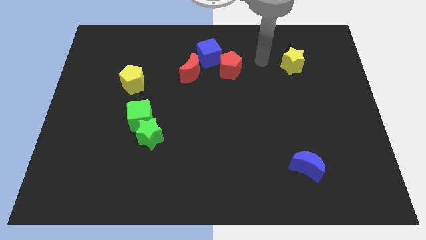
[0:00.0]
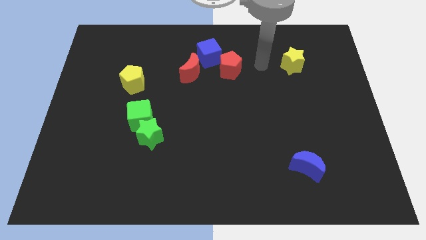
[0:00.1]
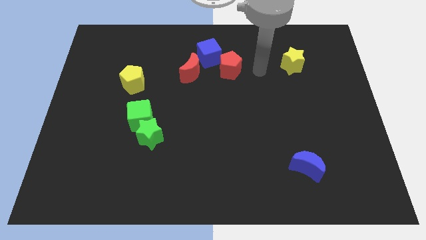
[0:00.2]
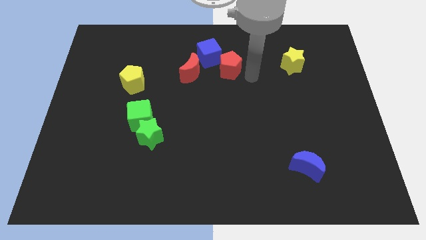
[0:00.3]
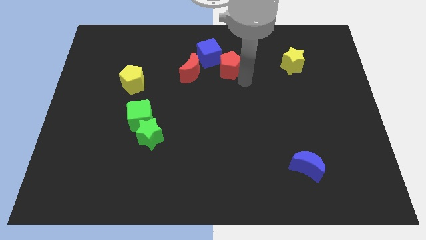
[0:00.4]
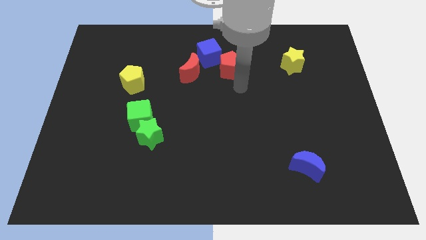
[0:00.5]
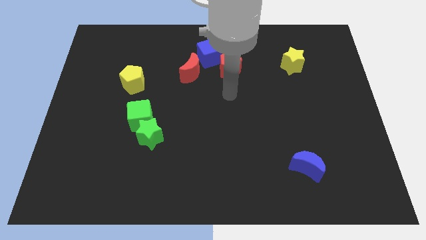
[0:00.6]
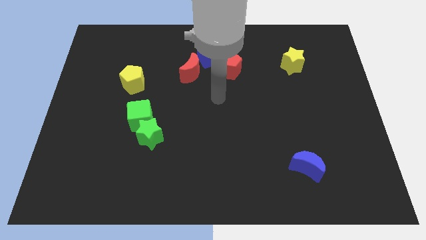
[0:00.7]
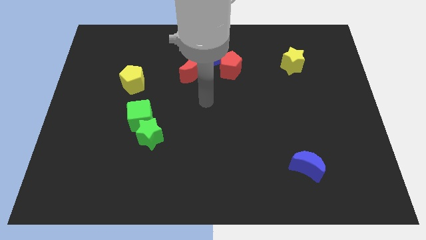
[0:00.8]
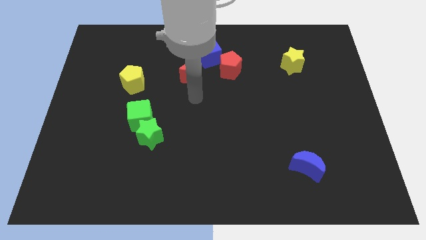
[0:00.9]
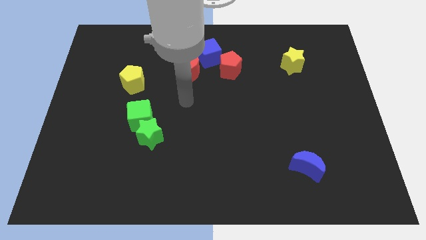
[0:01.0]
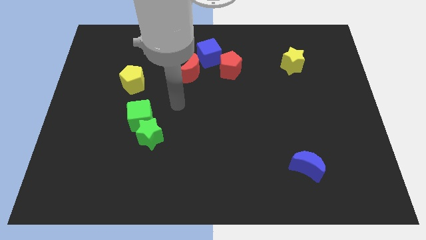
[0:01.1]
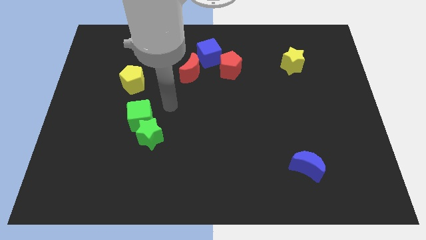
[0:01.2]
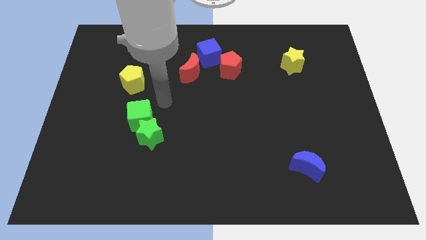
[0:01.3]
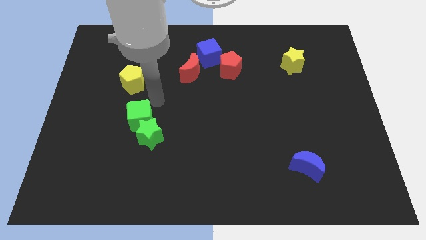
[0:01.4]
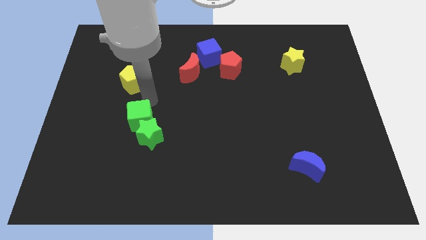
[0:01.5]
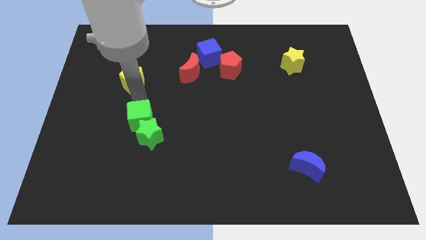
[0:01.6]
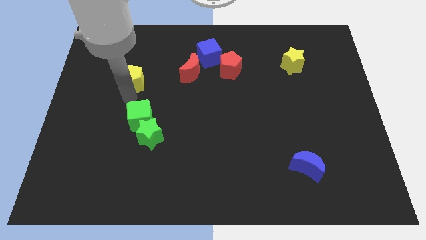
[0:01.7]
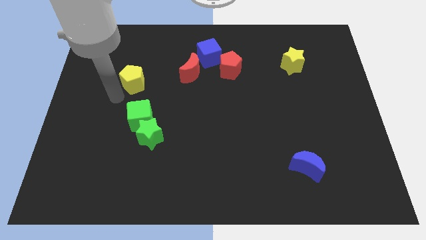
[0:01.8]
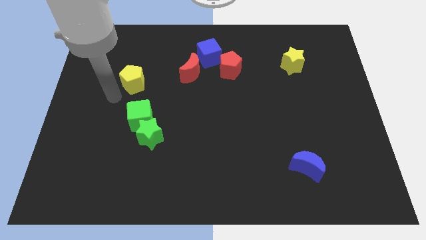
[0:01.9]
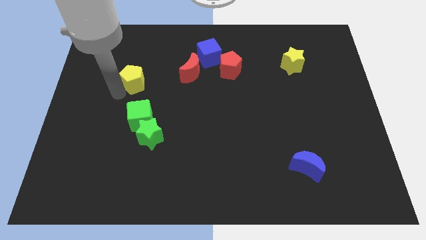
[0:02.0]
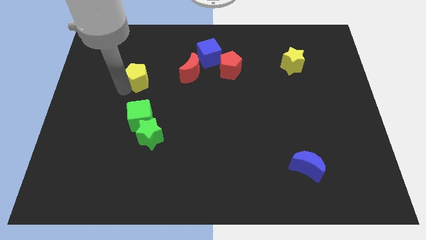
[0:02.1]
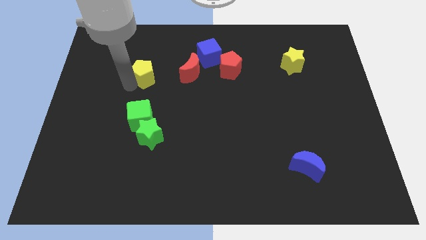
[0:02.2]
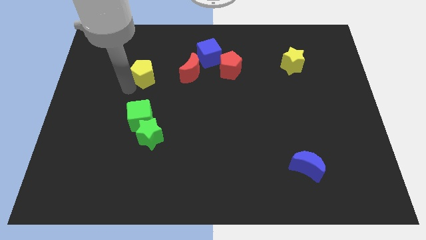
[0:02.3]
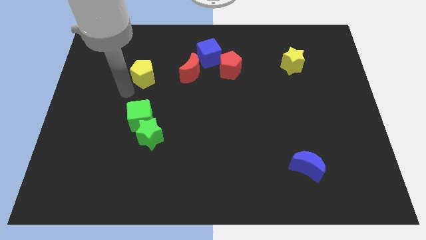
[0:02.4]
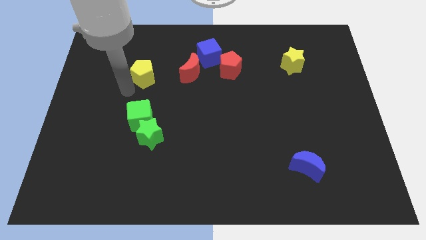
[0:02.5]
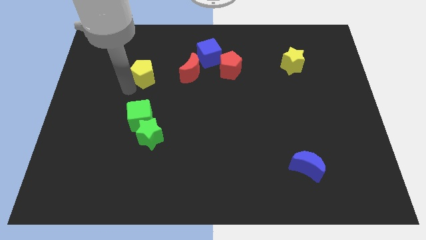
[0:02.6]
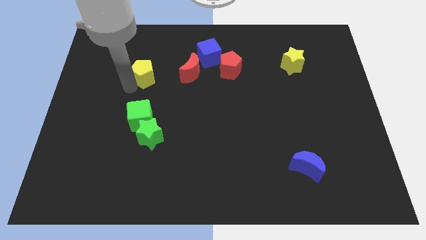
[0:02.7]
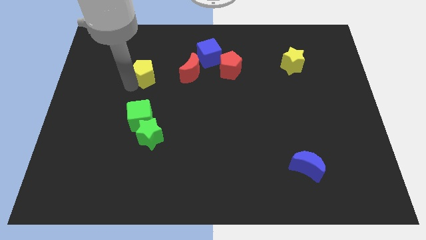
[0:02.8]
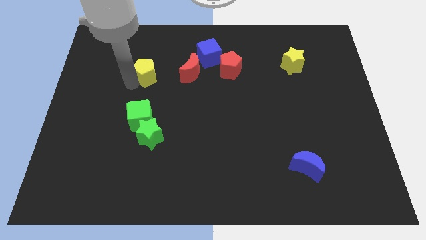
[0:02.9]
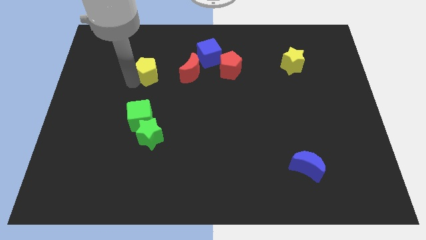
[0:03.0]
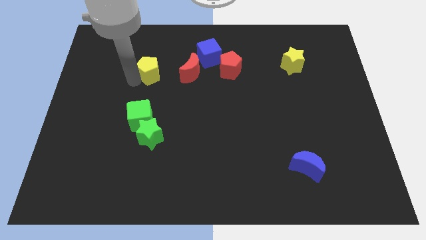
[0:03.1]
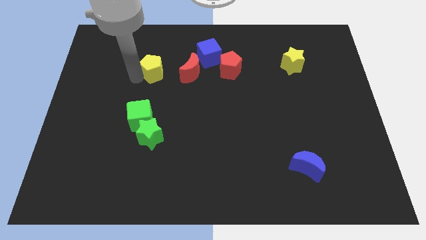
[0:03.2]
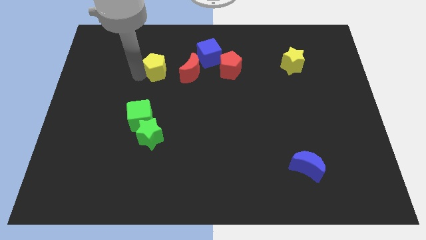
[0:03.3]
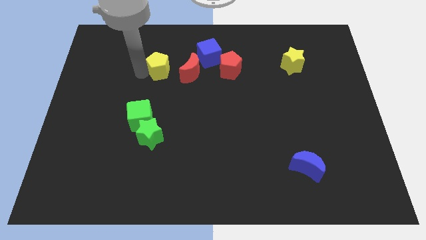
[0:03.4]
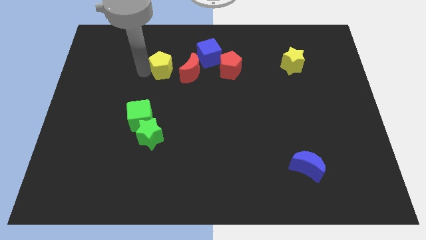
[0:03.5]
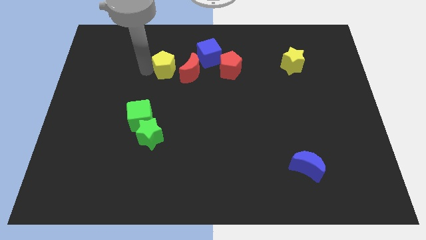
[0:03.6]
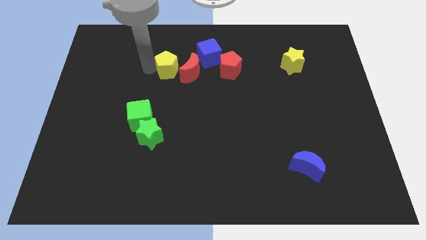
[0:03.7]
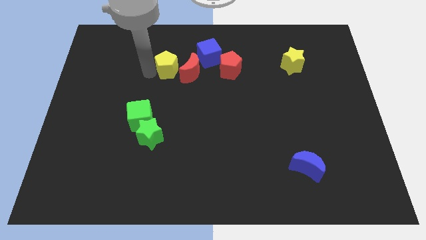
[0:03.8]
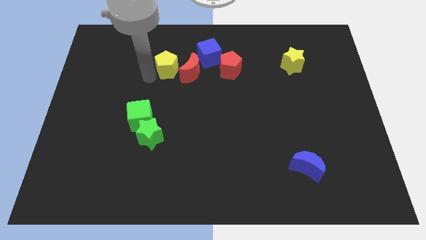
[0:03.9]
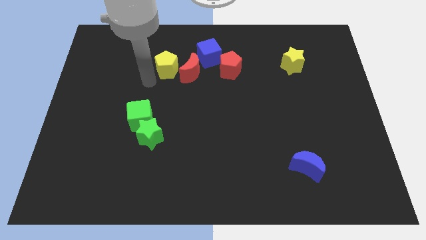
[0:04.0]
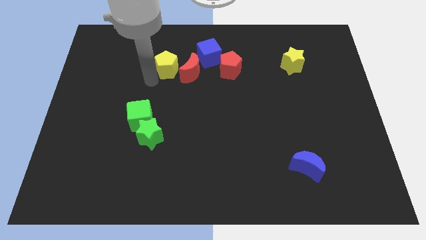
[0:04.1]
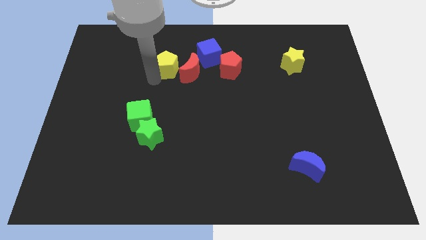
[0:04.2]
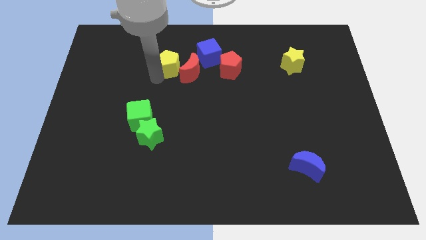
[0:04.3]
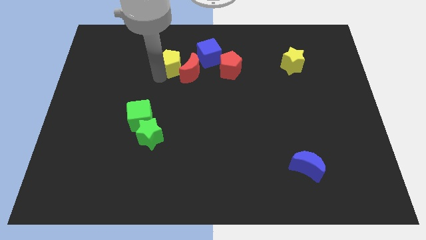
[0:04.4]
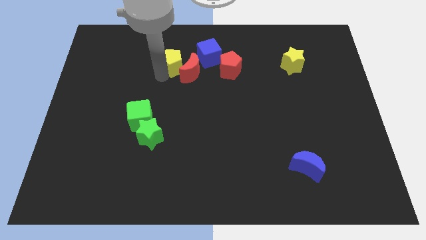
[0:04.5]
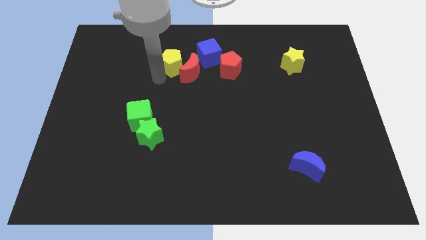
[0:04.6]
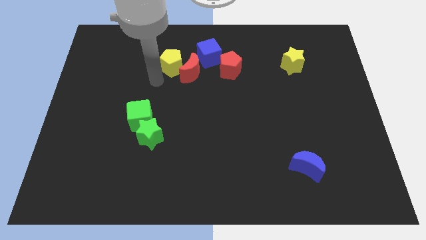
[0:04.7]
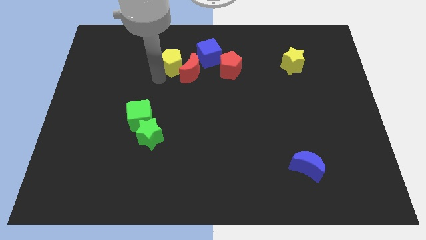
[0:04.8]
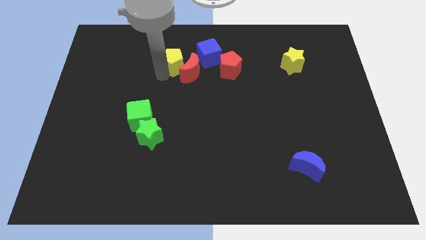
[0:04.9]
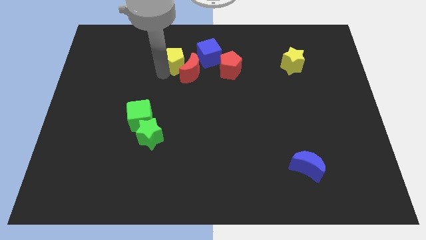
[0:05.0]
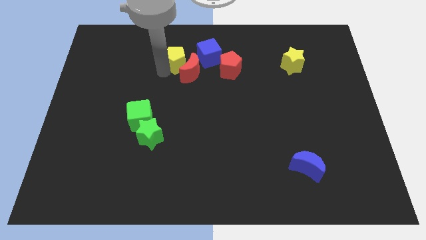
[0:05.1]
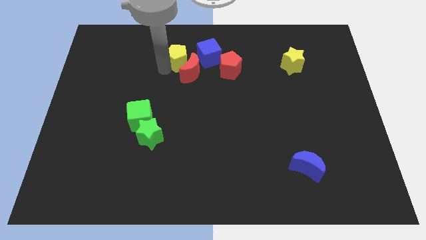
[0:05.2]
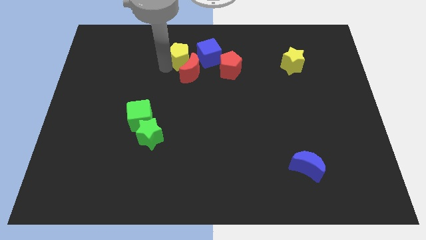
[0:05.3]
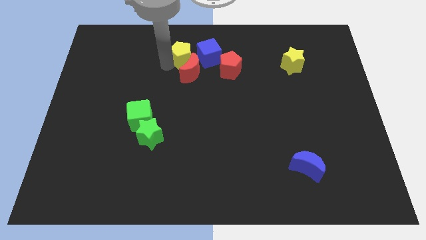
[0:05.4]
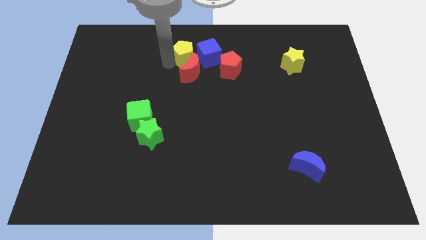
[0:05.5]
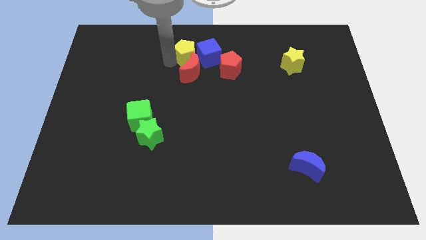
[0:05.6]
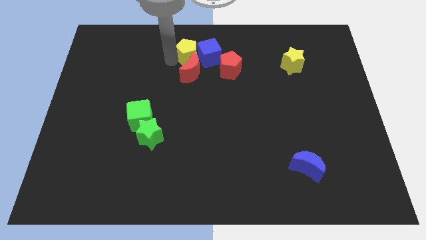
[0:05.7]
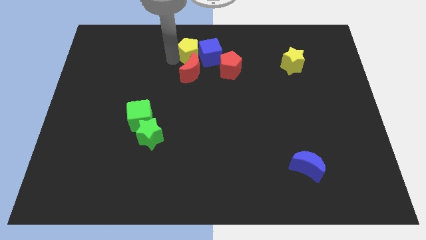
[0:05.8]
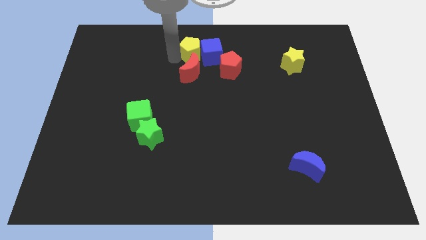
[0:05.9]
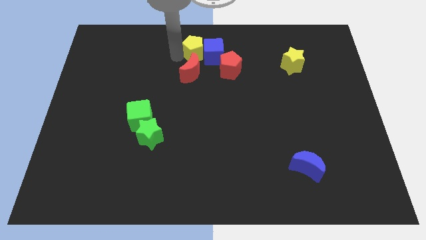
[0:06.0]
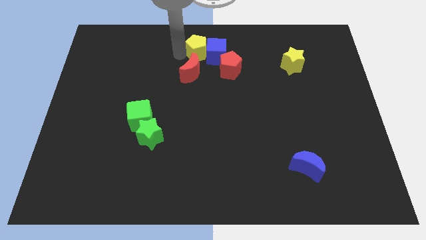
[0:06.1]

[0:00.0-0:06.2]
slide the yellow pentagon to the top right side of the red moon

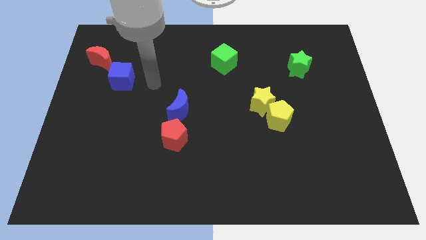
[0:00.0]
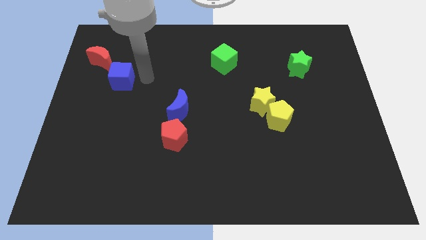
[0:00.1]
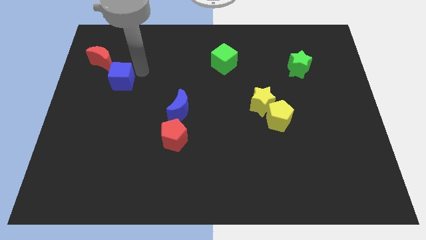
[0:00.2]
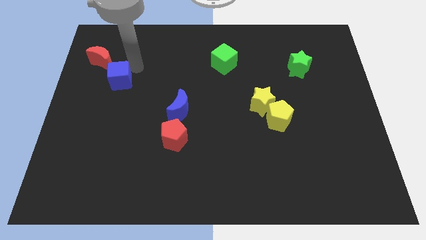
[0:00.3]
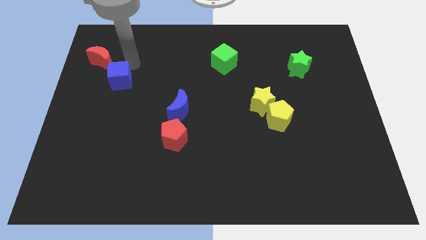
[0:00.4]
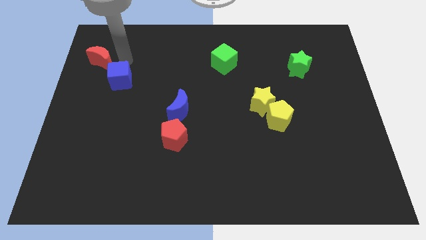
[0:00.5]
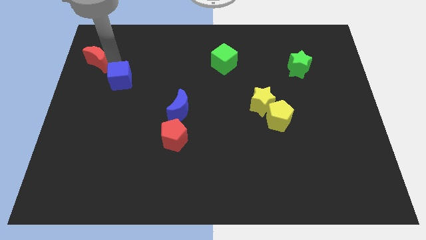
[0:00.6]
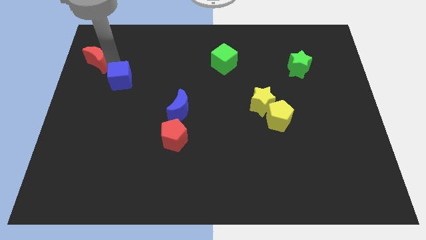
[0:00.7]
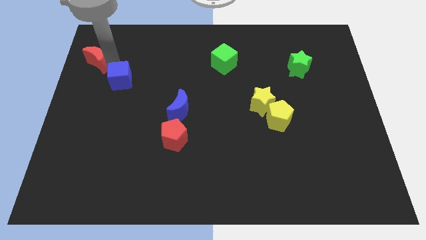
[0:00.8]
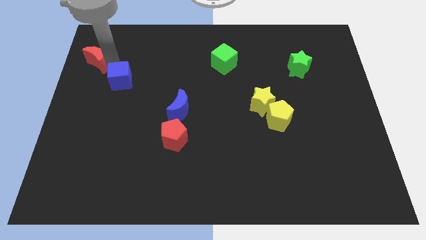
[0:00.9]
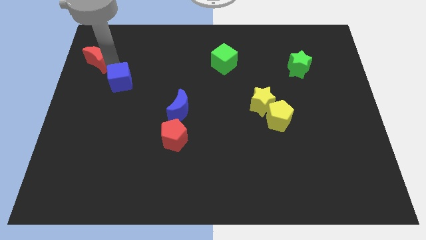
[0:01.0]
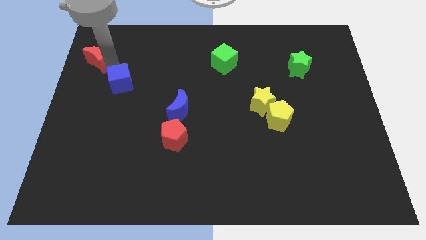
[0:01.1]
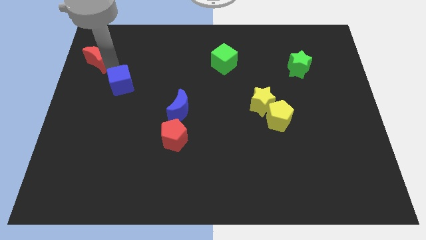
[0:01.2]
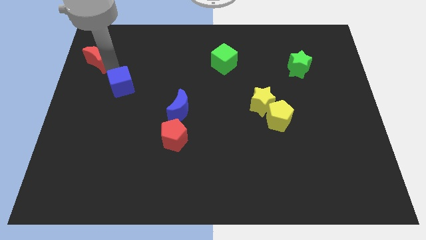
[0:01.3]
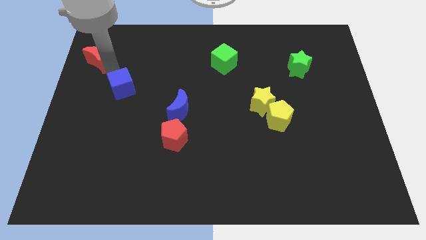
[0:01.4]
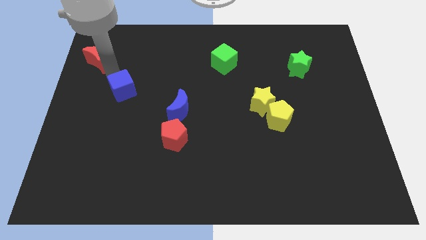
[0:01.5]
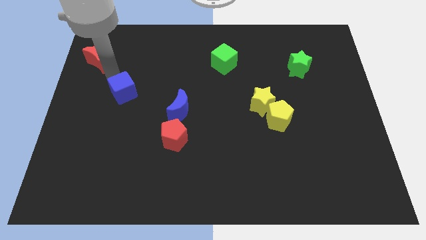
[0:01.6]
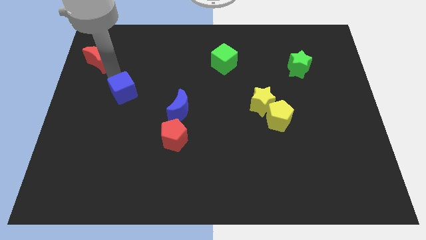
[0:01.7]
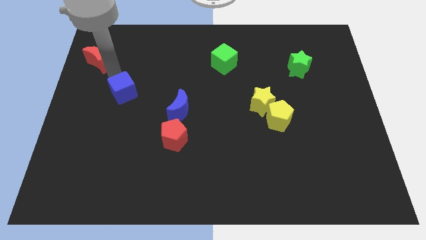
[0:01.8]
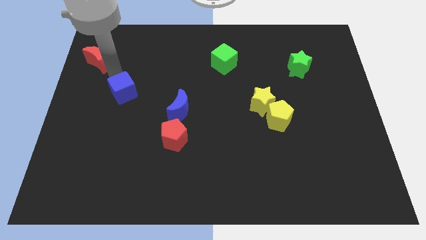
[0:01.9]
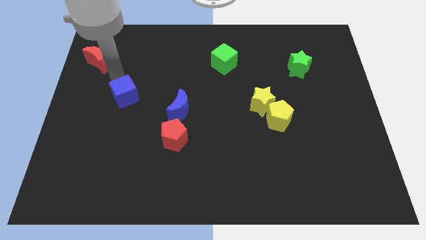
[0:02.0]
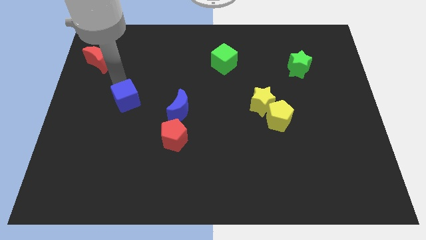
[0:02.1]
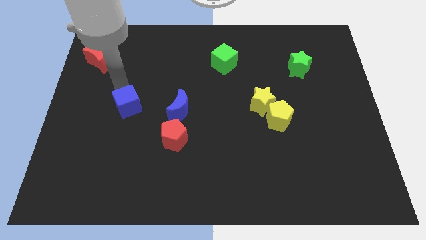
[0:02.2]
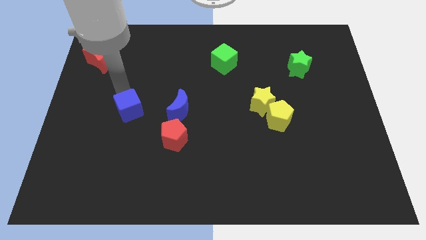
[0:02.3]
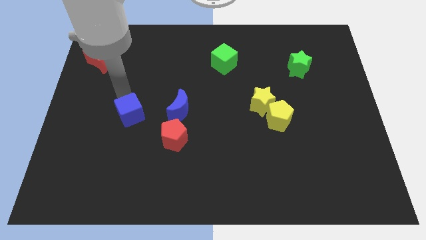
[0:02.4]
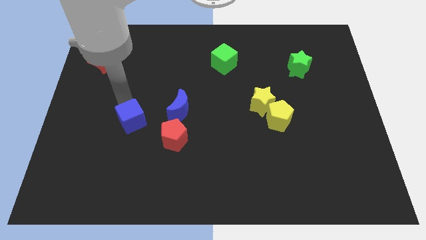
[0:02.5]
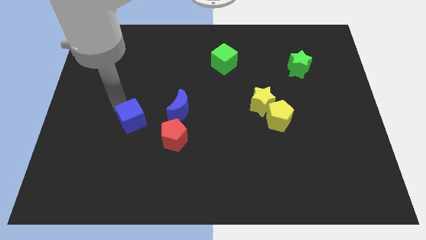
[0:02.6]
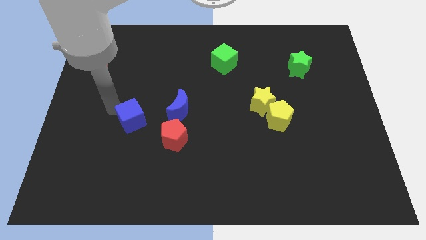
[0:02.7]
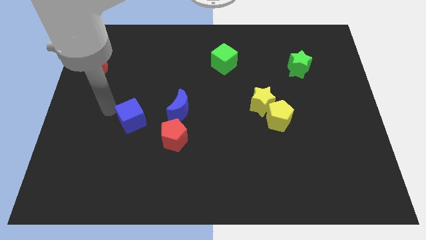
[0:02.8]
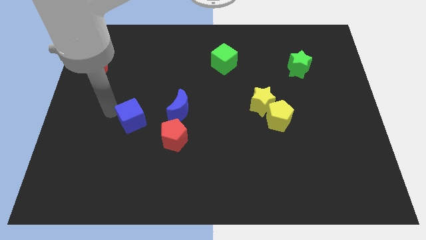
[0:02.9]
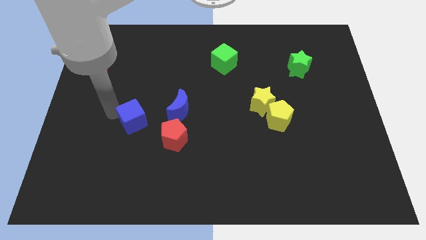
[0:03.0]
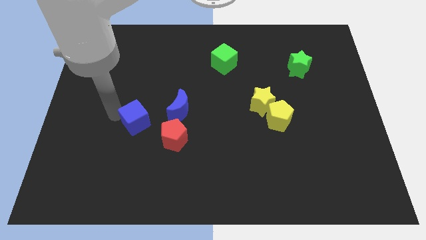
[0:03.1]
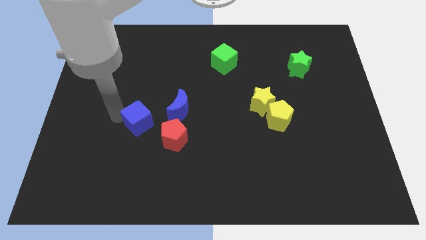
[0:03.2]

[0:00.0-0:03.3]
slide the blue cube to the bottom left of the blue moon
